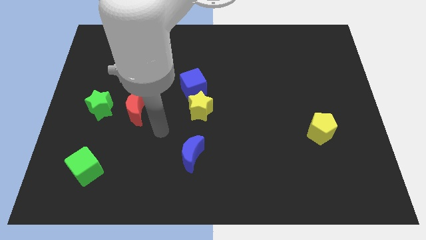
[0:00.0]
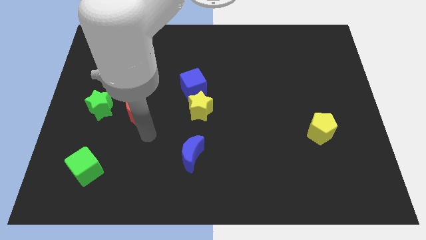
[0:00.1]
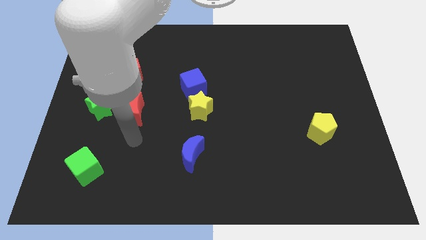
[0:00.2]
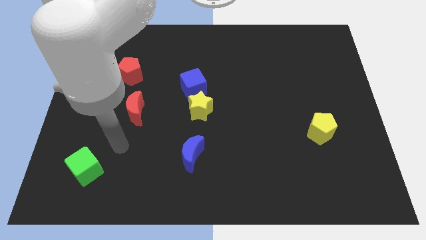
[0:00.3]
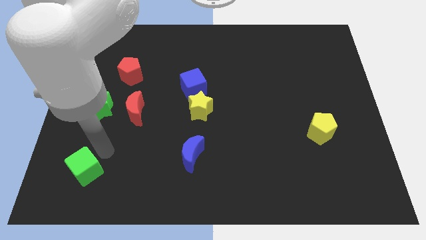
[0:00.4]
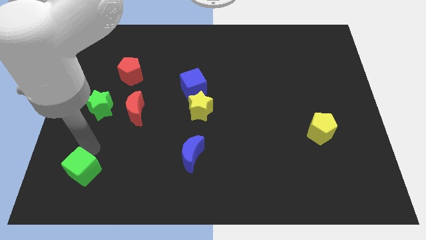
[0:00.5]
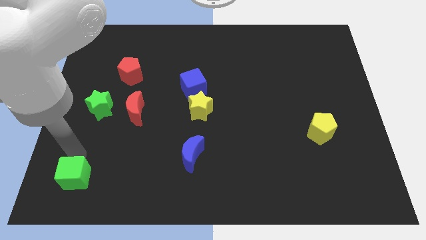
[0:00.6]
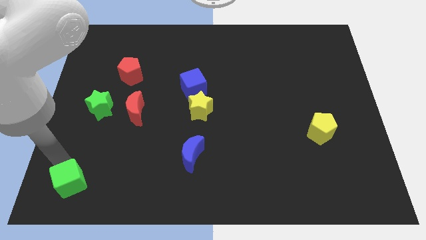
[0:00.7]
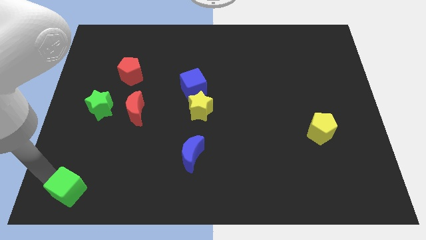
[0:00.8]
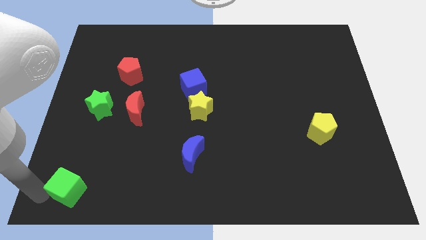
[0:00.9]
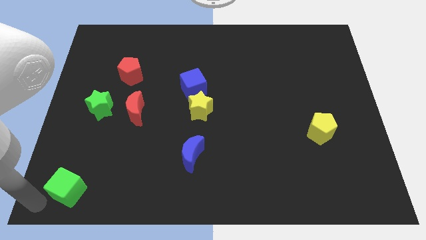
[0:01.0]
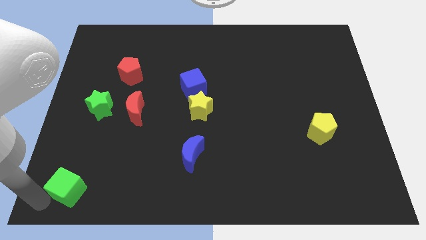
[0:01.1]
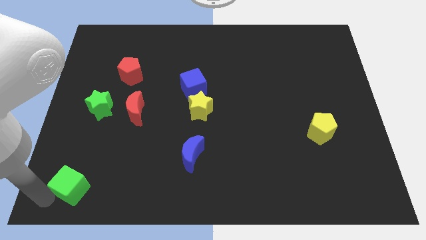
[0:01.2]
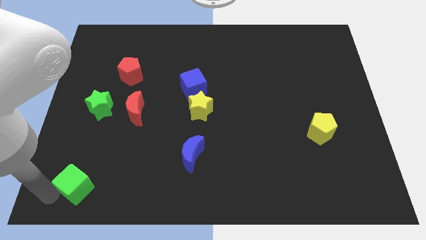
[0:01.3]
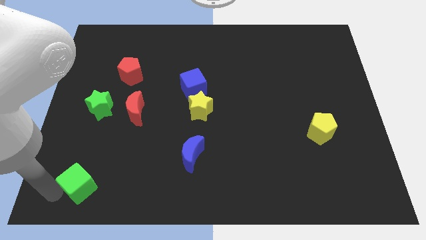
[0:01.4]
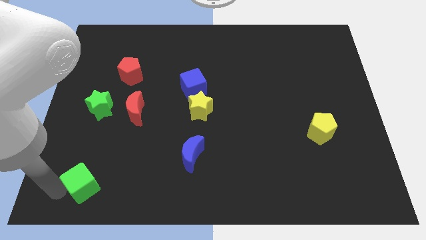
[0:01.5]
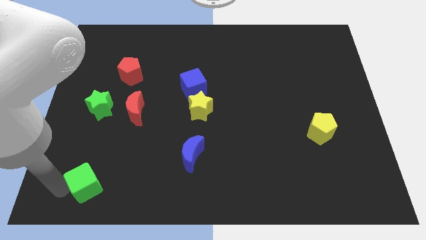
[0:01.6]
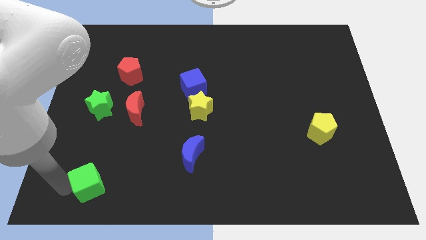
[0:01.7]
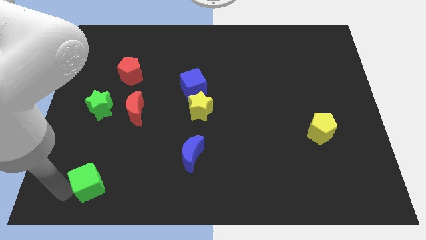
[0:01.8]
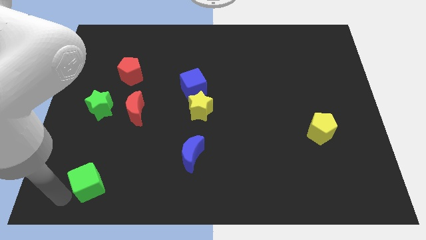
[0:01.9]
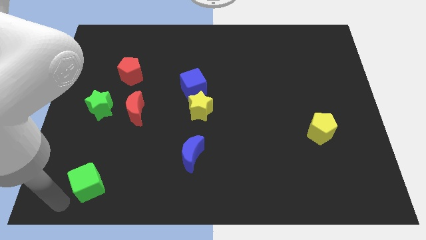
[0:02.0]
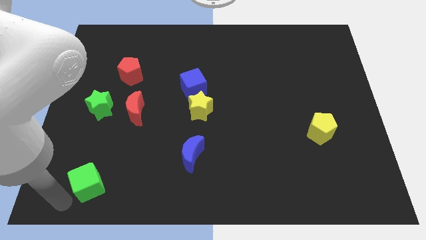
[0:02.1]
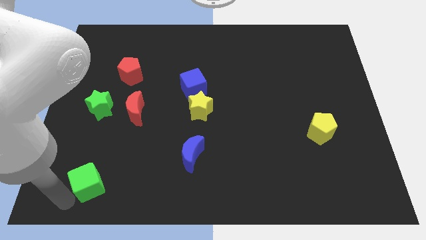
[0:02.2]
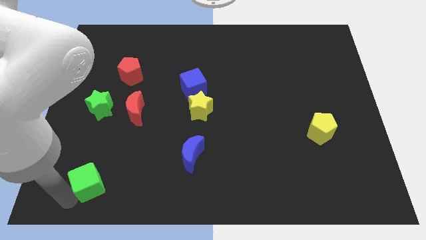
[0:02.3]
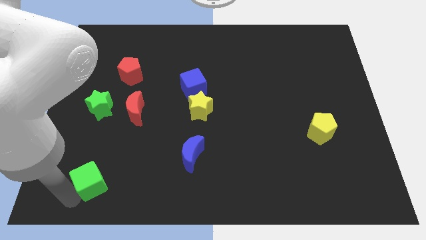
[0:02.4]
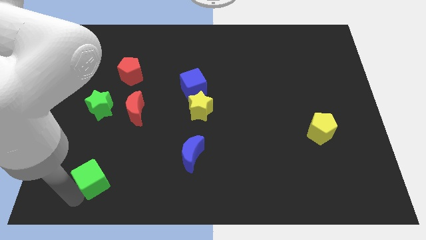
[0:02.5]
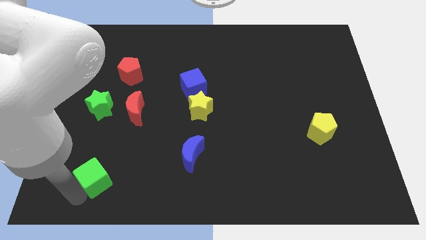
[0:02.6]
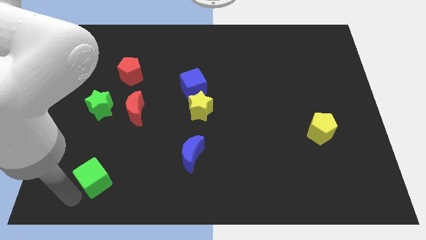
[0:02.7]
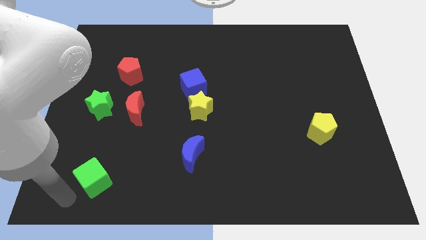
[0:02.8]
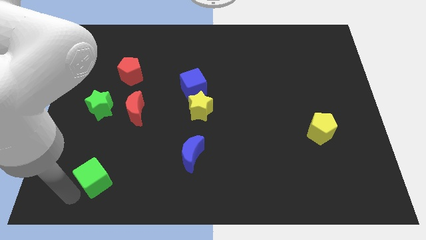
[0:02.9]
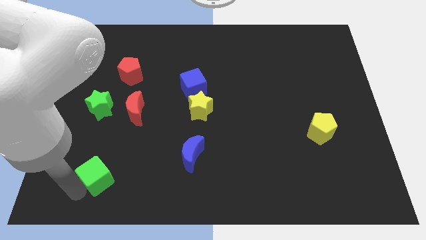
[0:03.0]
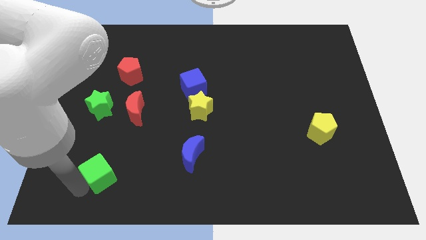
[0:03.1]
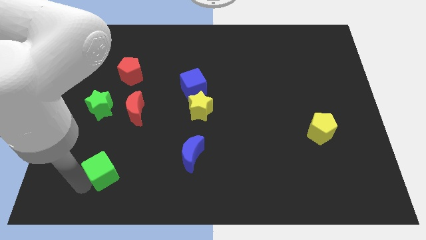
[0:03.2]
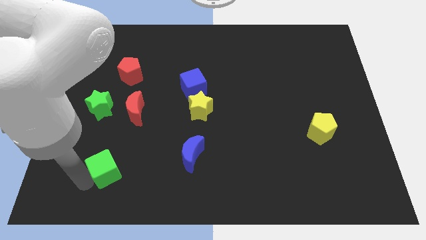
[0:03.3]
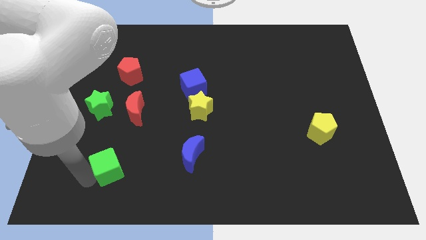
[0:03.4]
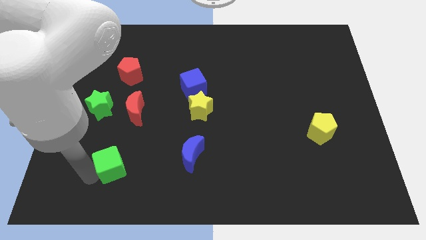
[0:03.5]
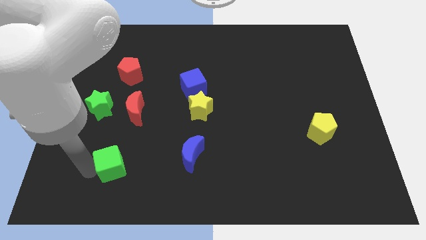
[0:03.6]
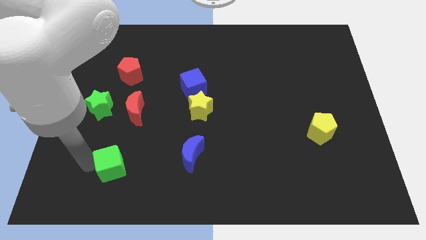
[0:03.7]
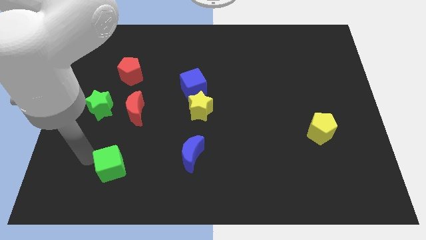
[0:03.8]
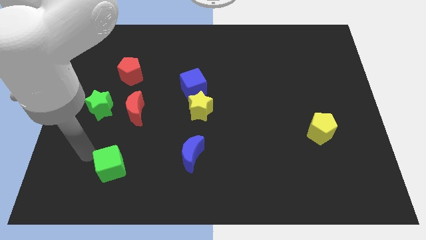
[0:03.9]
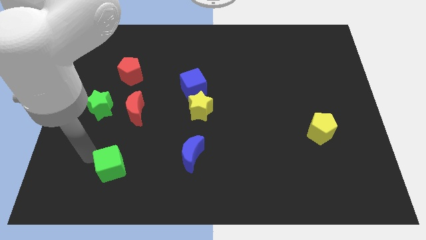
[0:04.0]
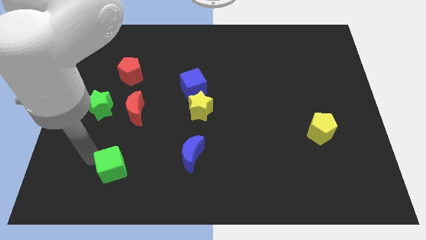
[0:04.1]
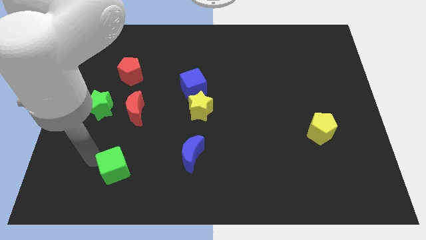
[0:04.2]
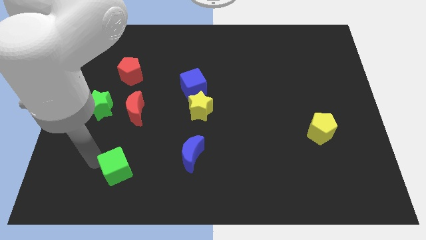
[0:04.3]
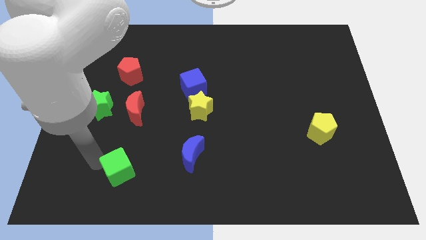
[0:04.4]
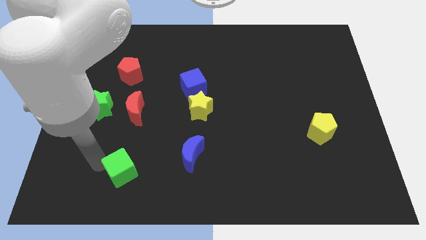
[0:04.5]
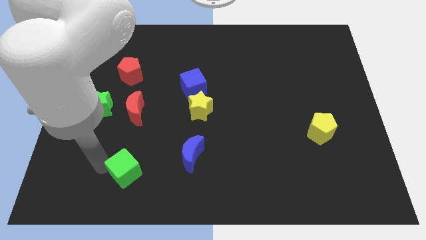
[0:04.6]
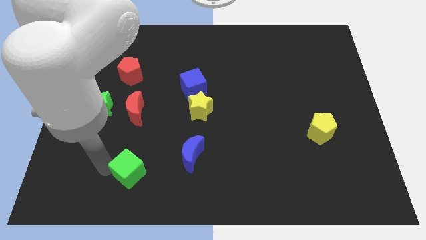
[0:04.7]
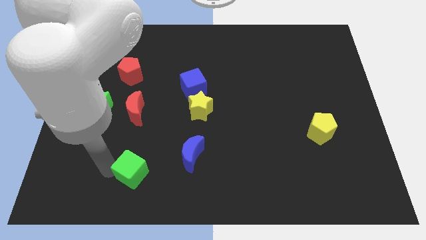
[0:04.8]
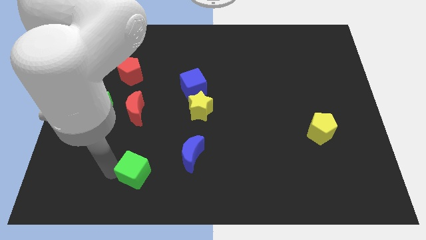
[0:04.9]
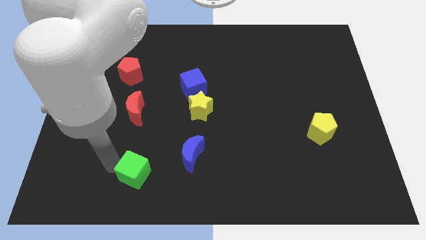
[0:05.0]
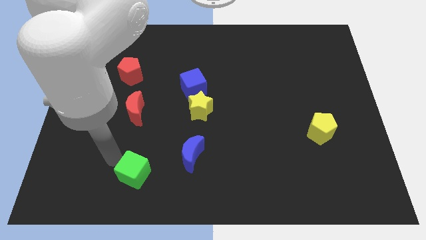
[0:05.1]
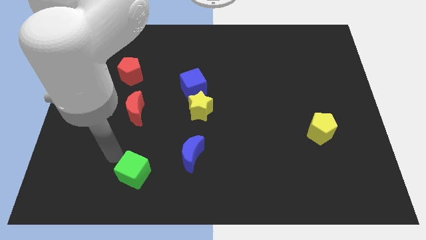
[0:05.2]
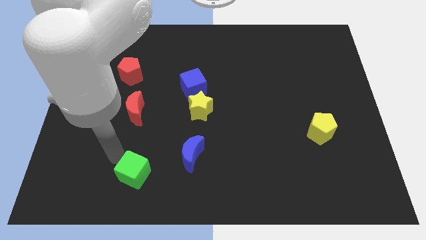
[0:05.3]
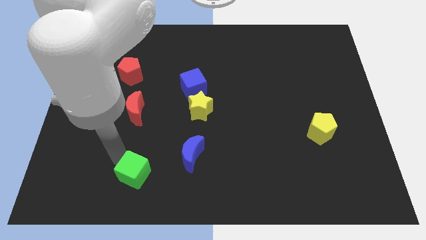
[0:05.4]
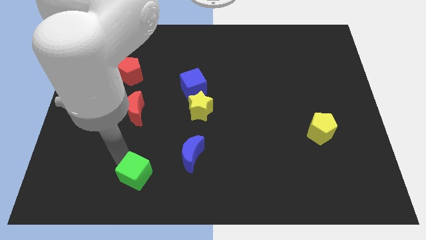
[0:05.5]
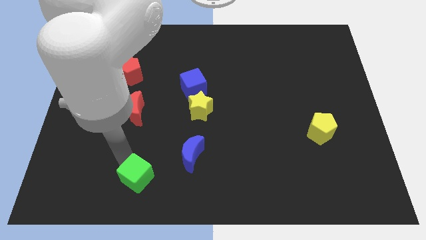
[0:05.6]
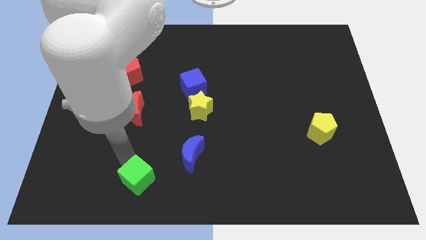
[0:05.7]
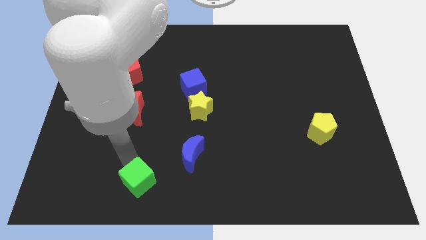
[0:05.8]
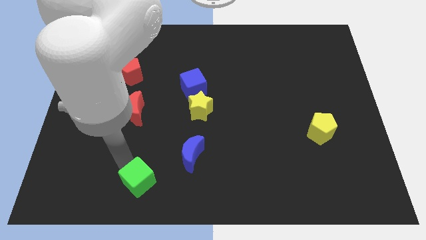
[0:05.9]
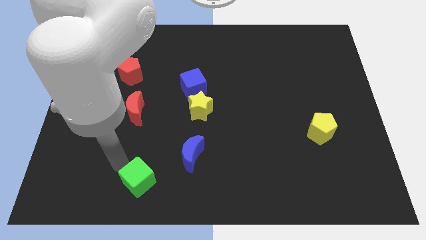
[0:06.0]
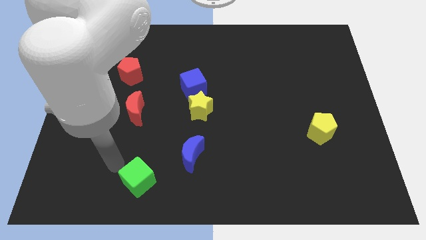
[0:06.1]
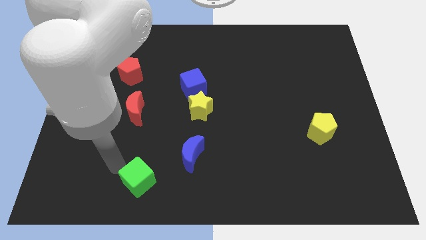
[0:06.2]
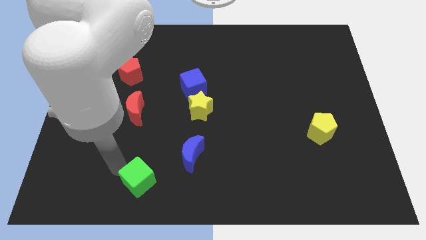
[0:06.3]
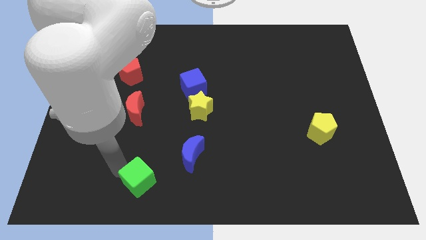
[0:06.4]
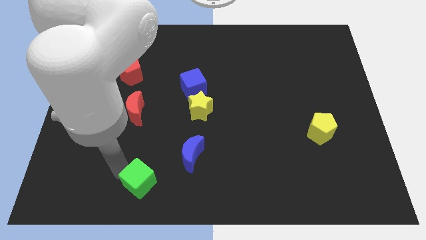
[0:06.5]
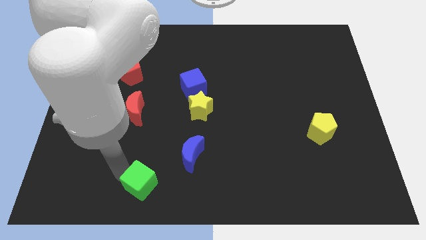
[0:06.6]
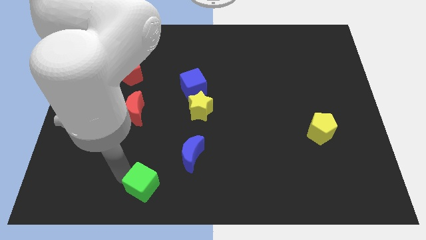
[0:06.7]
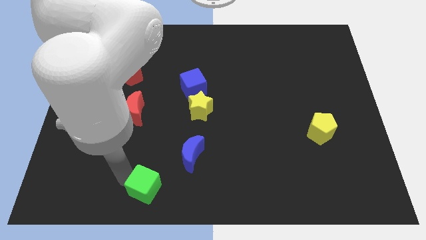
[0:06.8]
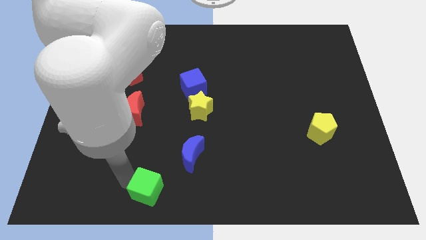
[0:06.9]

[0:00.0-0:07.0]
put the green cube to the bottom side
